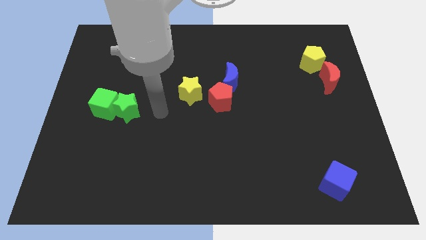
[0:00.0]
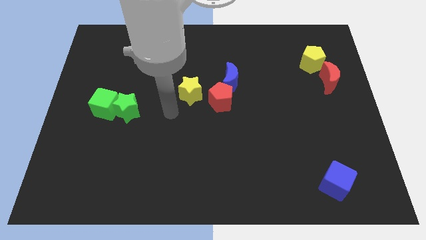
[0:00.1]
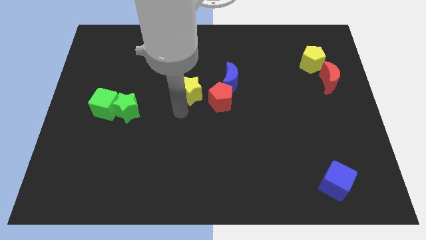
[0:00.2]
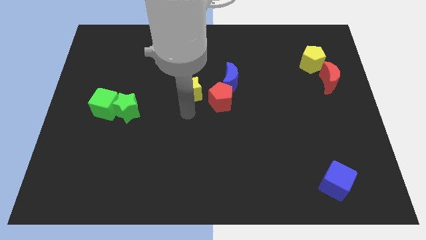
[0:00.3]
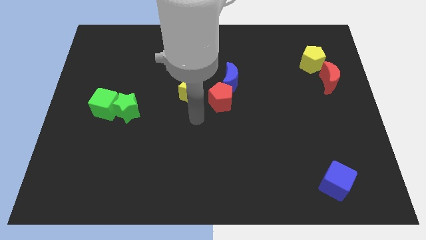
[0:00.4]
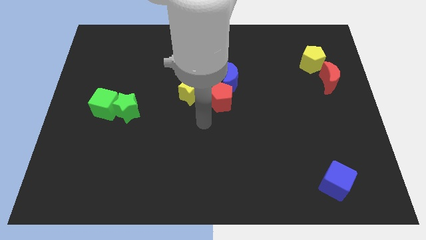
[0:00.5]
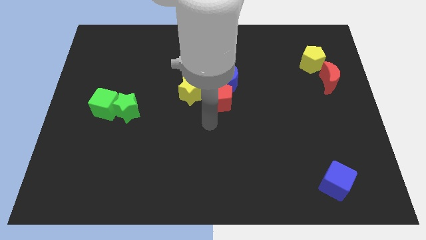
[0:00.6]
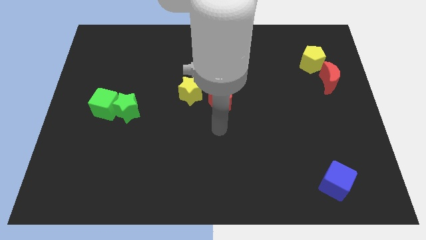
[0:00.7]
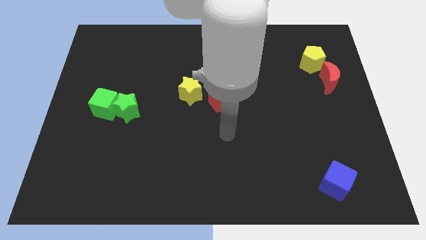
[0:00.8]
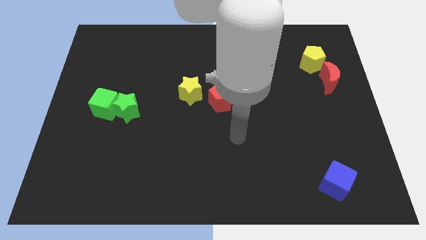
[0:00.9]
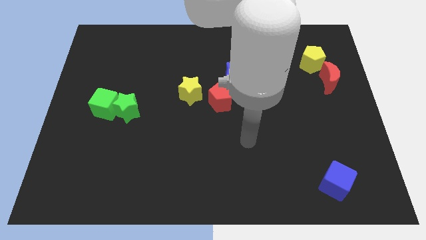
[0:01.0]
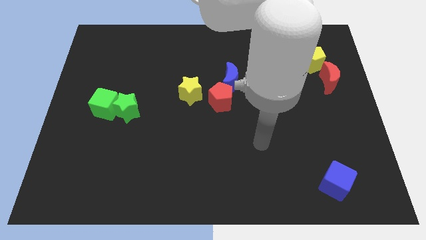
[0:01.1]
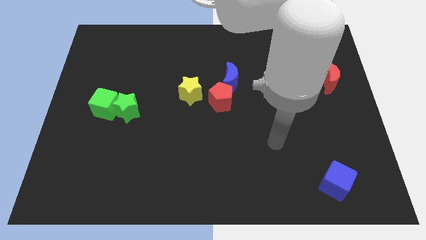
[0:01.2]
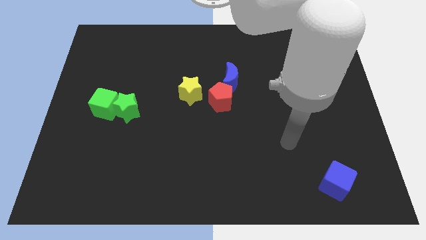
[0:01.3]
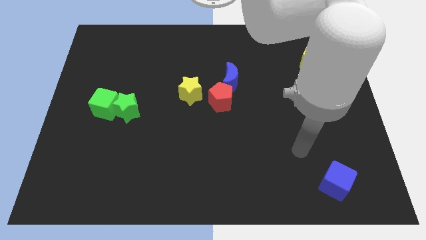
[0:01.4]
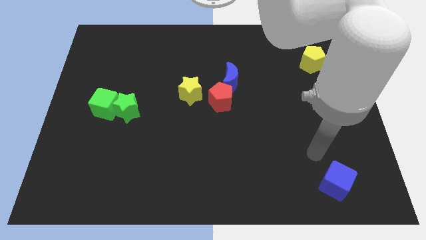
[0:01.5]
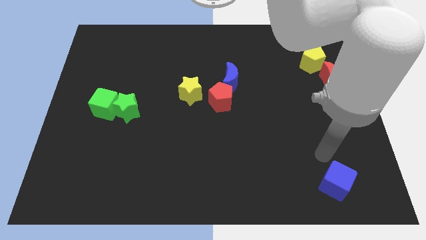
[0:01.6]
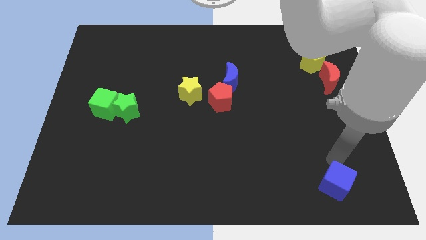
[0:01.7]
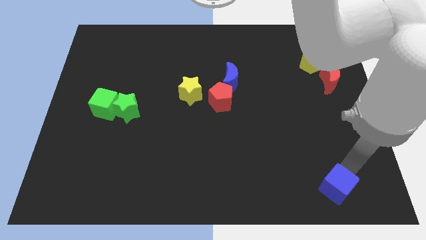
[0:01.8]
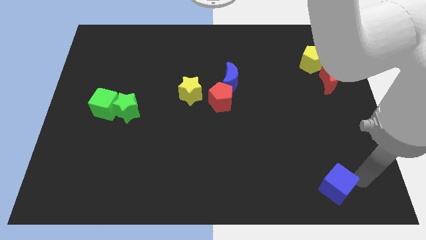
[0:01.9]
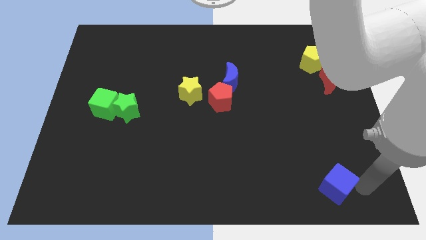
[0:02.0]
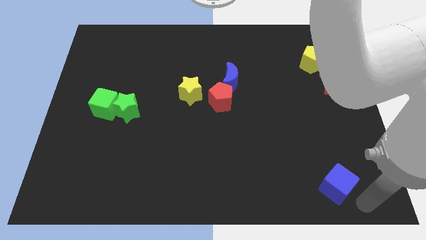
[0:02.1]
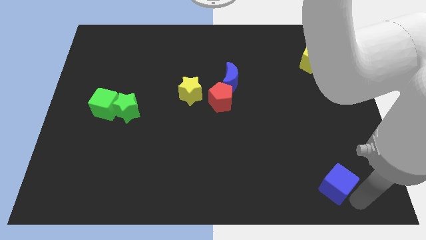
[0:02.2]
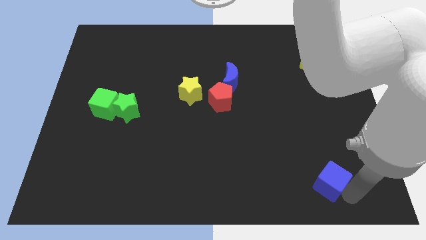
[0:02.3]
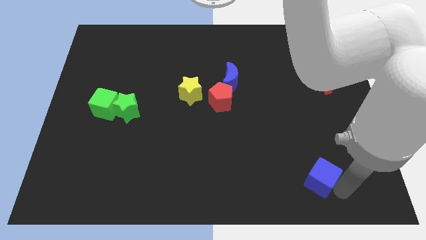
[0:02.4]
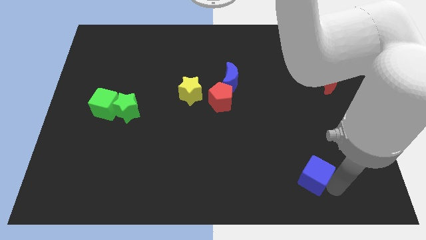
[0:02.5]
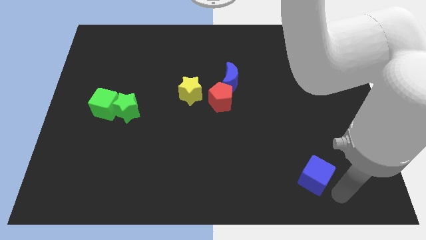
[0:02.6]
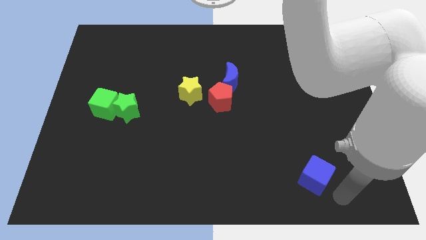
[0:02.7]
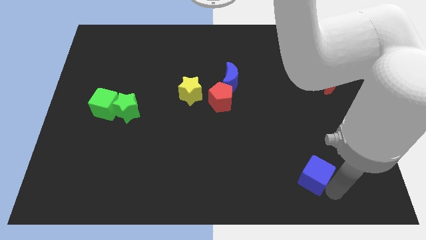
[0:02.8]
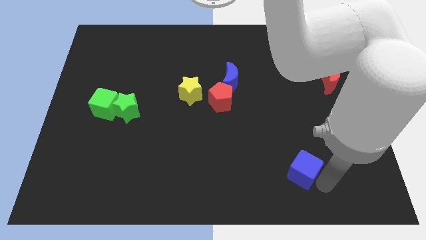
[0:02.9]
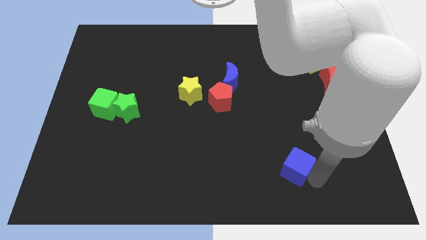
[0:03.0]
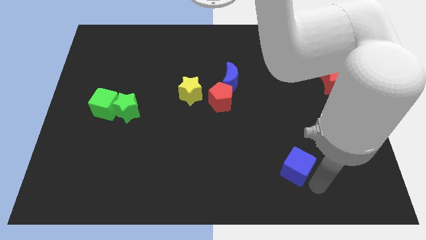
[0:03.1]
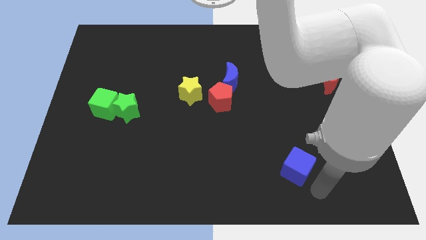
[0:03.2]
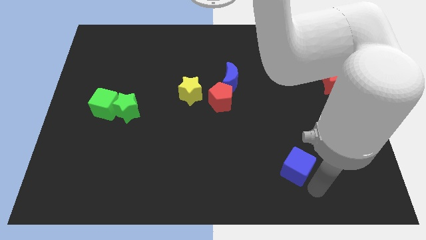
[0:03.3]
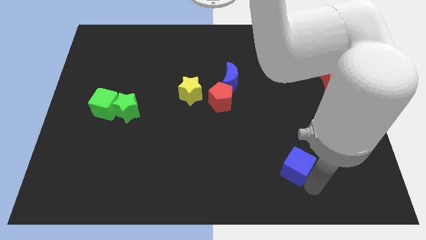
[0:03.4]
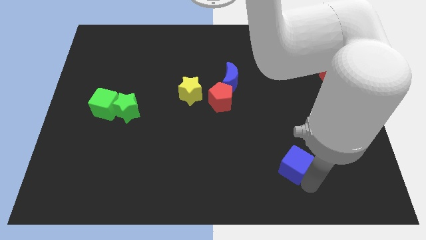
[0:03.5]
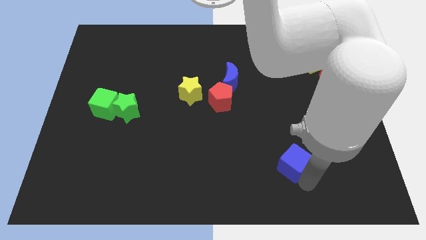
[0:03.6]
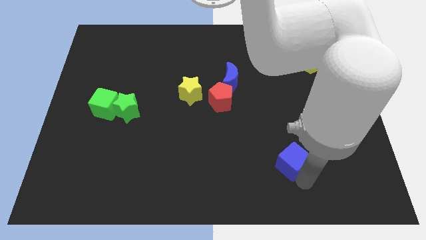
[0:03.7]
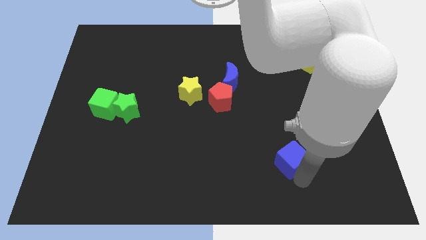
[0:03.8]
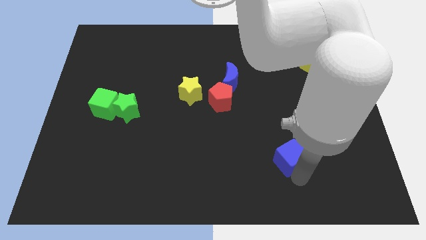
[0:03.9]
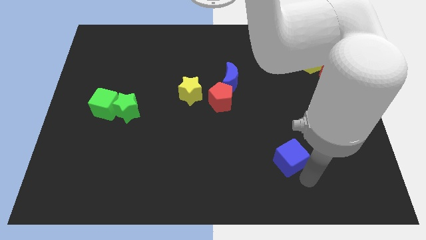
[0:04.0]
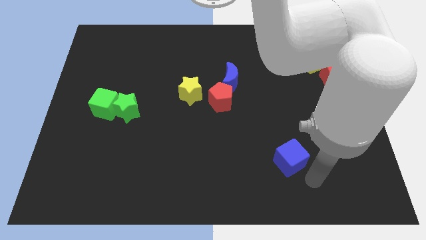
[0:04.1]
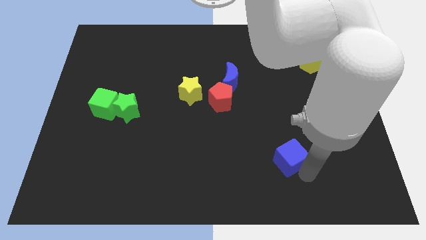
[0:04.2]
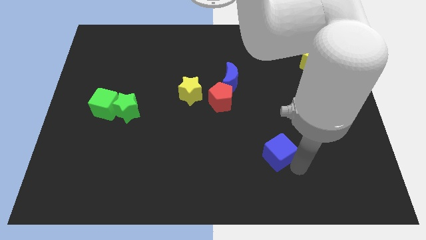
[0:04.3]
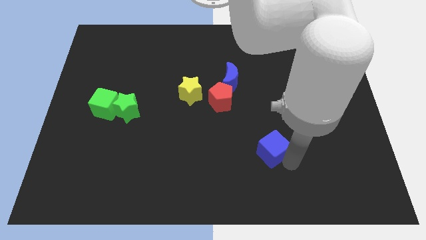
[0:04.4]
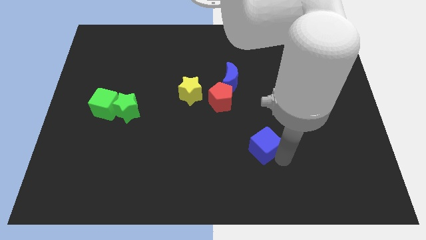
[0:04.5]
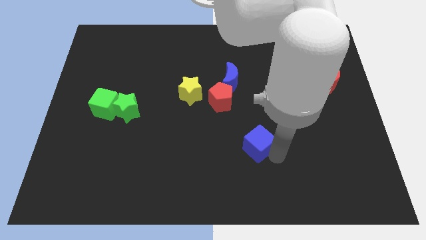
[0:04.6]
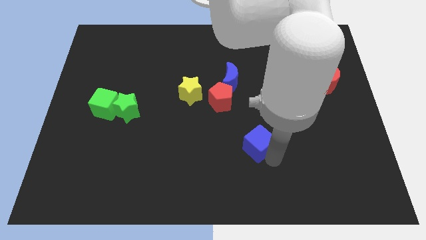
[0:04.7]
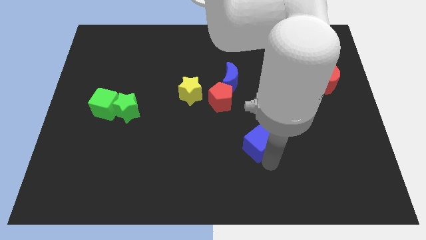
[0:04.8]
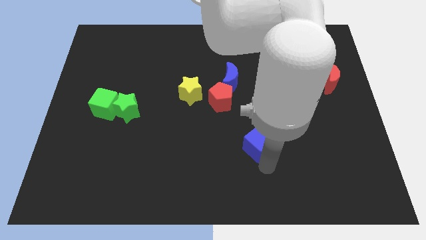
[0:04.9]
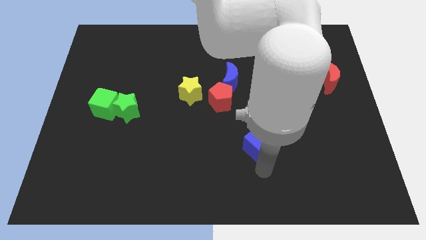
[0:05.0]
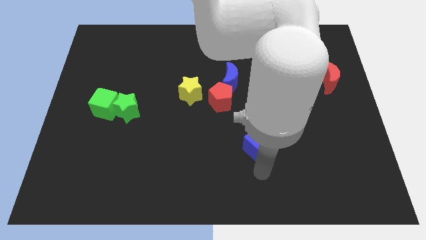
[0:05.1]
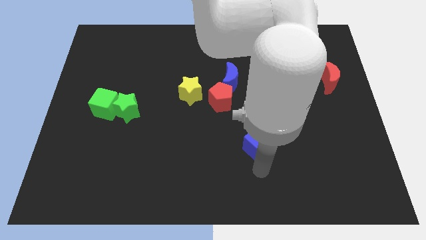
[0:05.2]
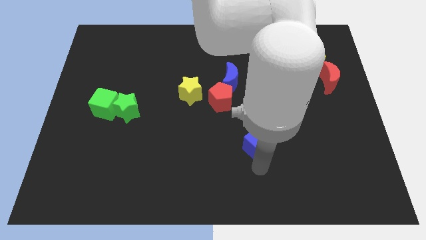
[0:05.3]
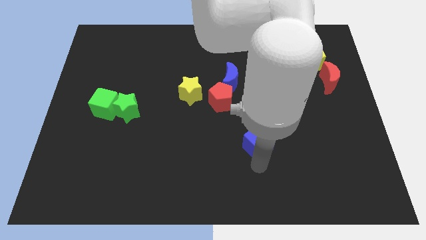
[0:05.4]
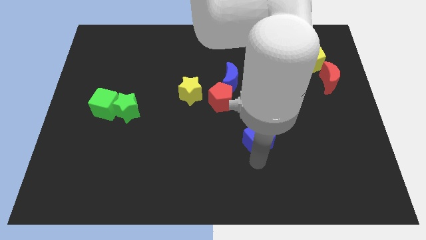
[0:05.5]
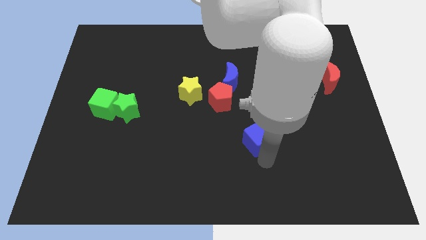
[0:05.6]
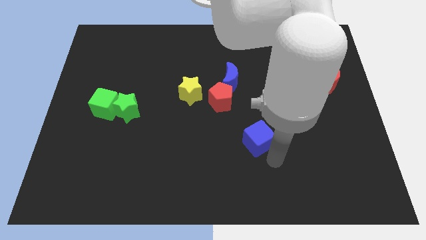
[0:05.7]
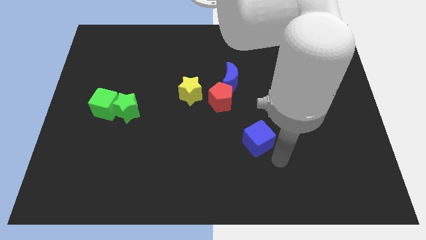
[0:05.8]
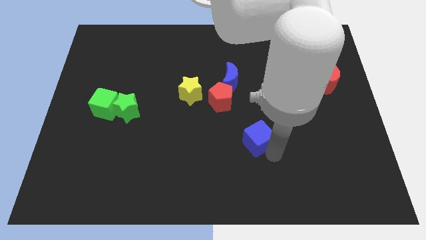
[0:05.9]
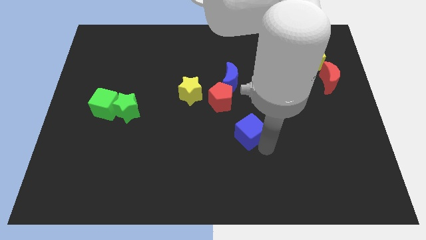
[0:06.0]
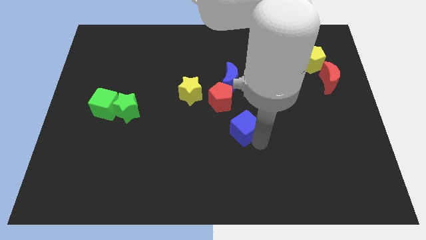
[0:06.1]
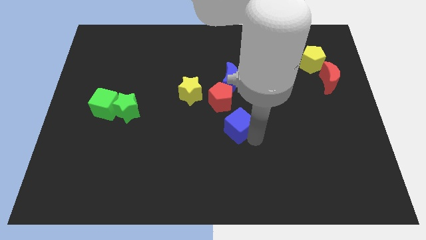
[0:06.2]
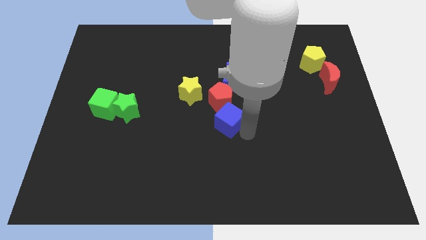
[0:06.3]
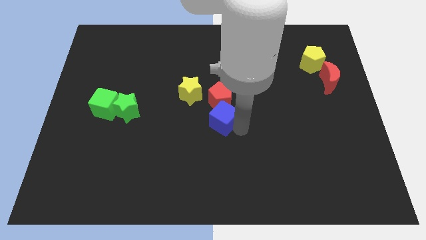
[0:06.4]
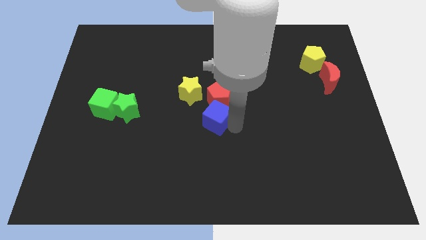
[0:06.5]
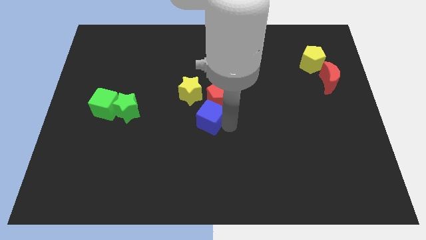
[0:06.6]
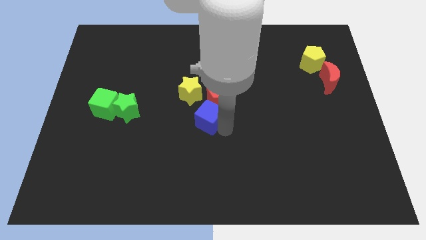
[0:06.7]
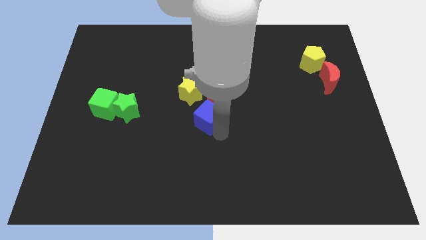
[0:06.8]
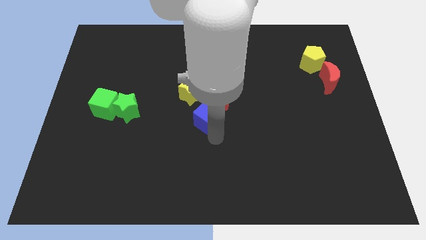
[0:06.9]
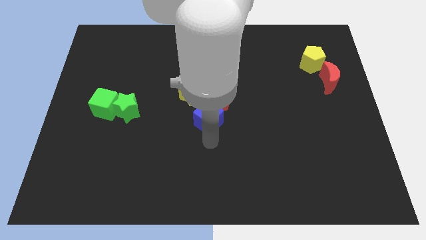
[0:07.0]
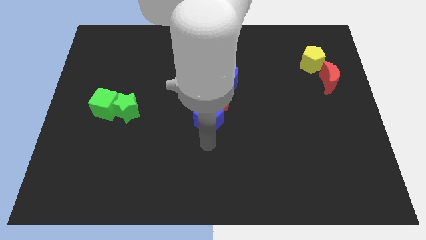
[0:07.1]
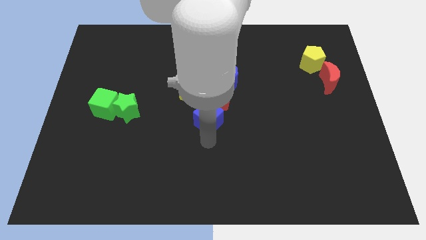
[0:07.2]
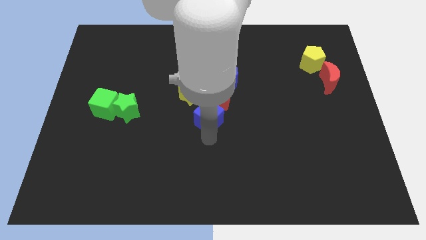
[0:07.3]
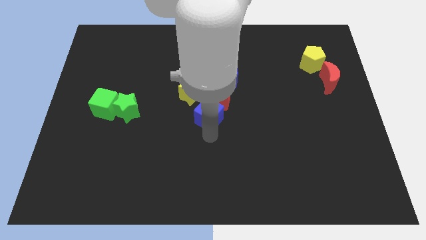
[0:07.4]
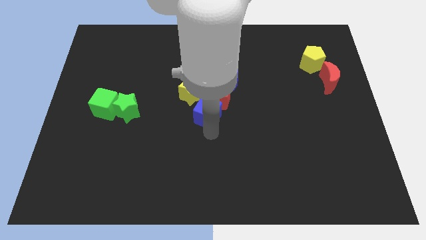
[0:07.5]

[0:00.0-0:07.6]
put the blue cube to the bottom left of the blue moon
